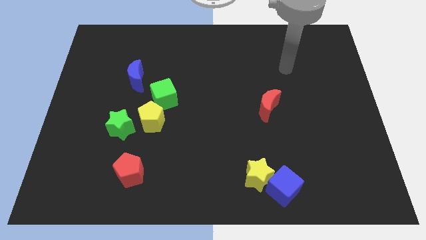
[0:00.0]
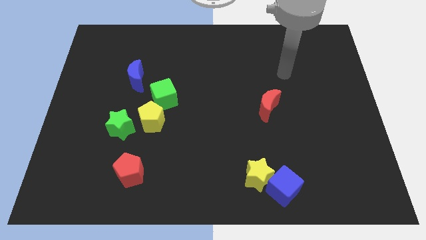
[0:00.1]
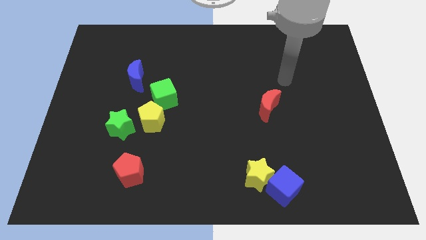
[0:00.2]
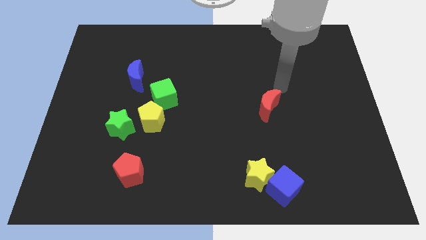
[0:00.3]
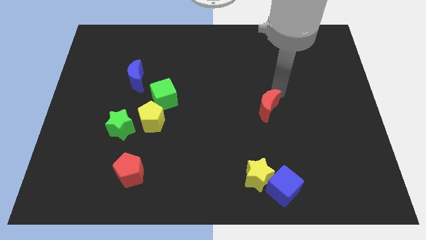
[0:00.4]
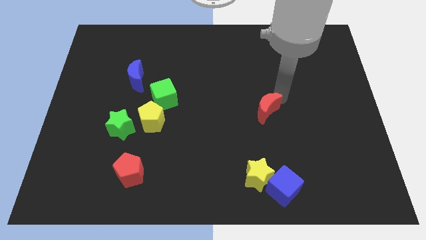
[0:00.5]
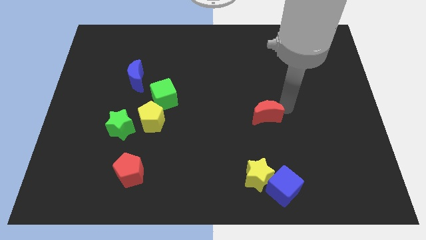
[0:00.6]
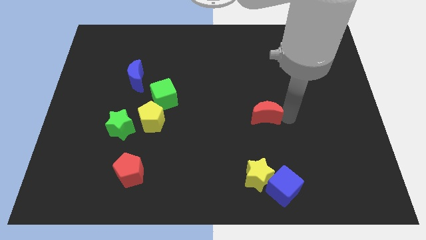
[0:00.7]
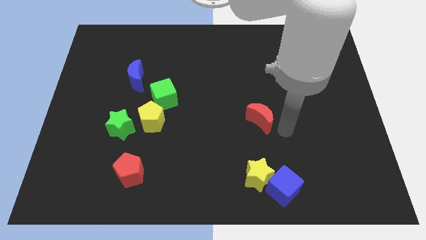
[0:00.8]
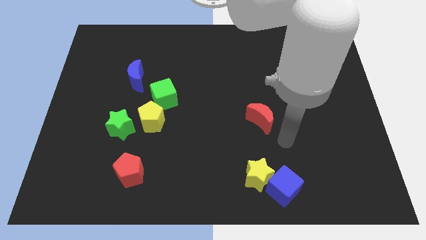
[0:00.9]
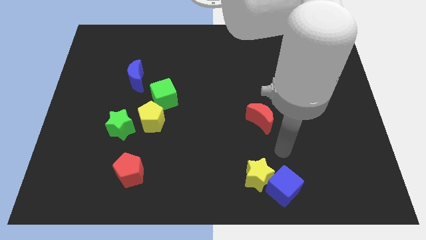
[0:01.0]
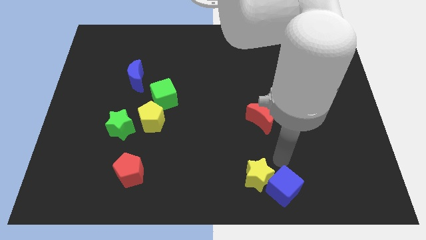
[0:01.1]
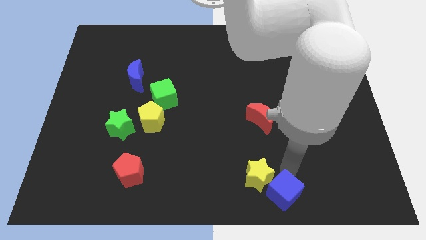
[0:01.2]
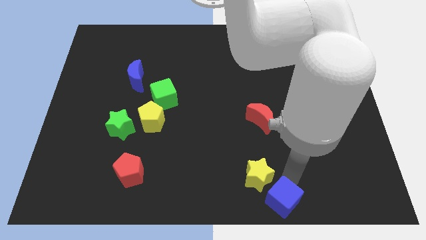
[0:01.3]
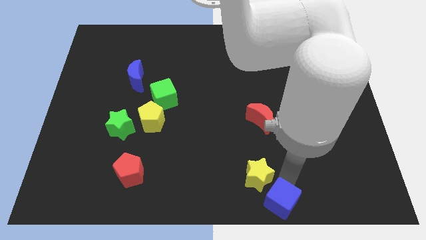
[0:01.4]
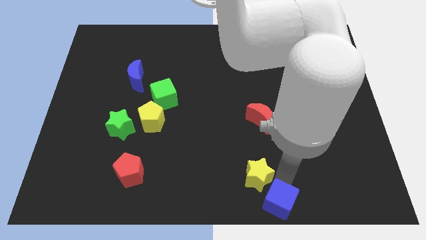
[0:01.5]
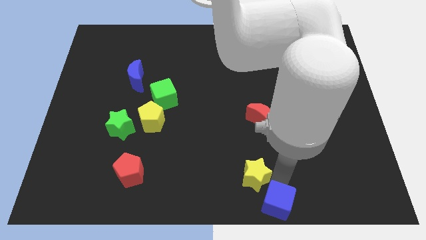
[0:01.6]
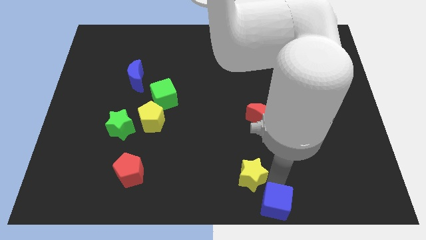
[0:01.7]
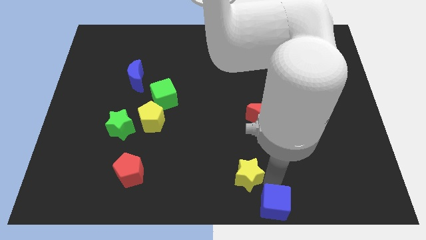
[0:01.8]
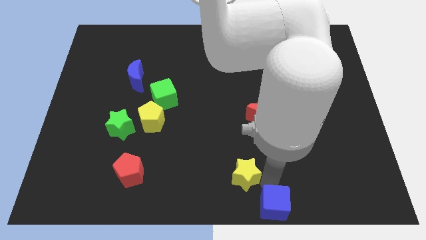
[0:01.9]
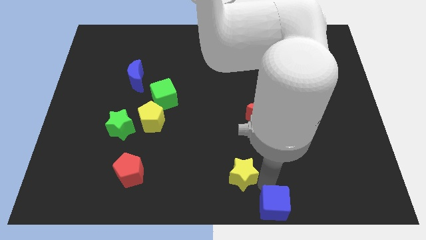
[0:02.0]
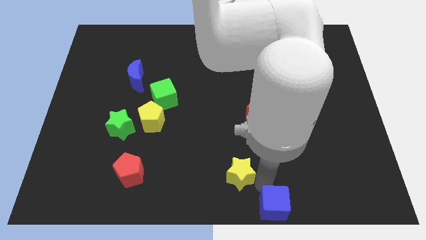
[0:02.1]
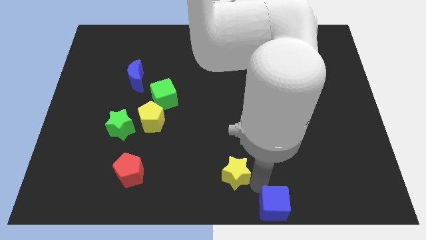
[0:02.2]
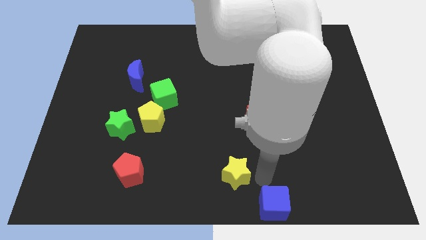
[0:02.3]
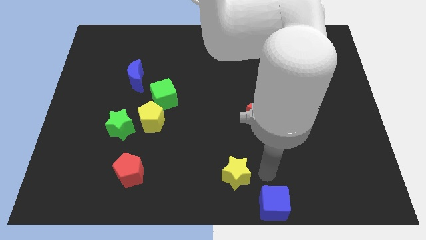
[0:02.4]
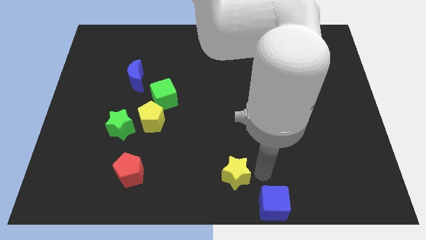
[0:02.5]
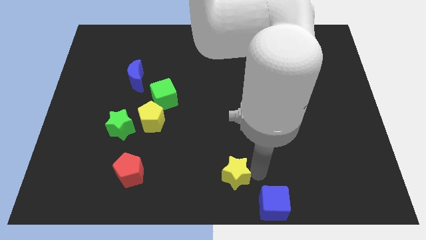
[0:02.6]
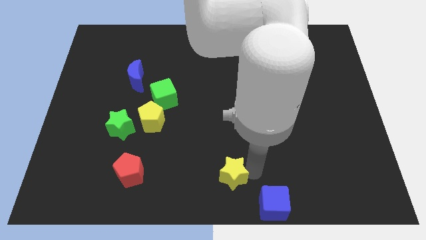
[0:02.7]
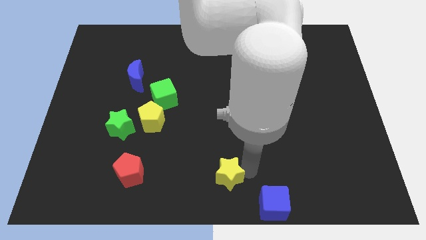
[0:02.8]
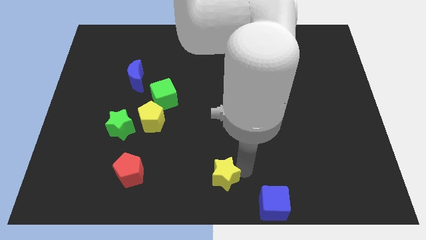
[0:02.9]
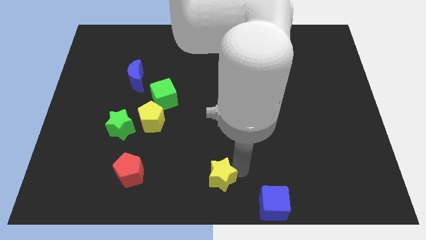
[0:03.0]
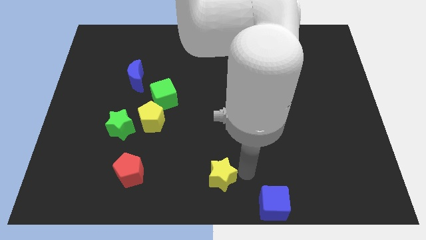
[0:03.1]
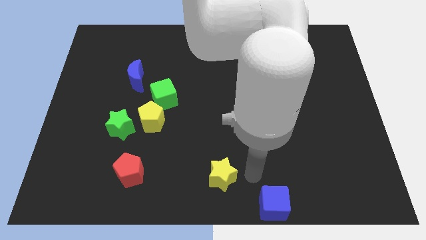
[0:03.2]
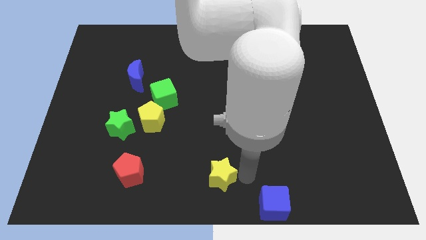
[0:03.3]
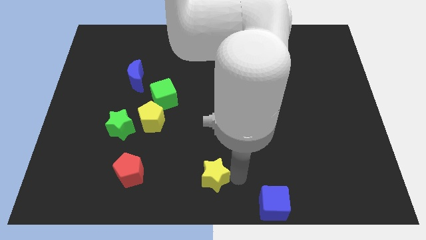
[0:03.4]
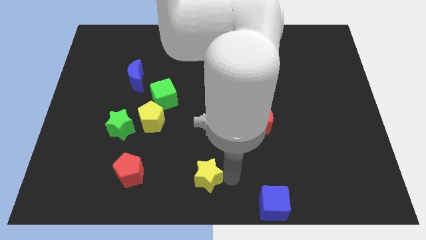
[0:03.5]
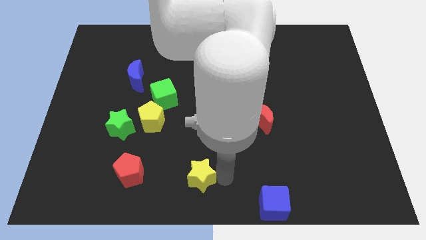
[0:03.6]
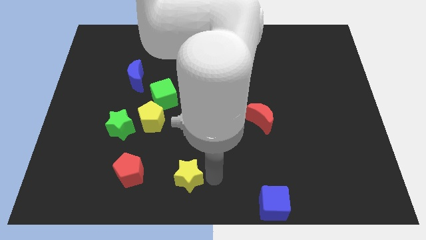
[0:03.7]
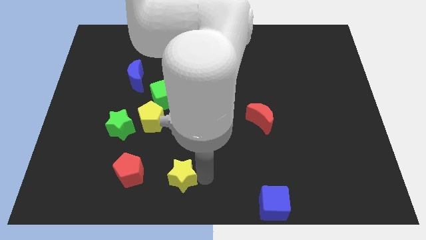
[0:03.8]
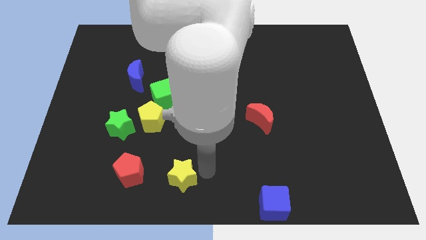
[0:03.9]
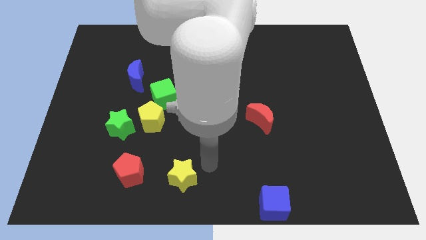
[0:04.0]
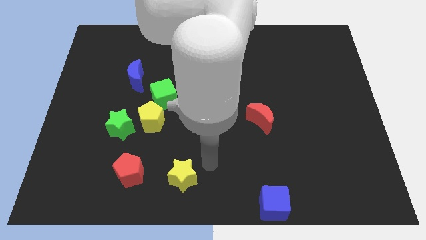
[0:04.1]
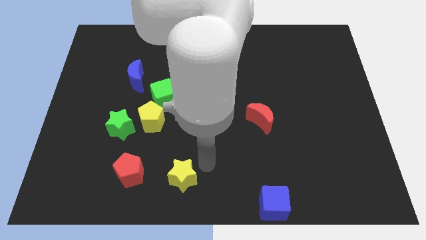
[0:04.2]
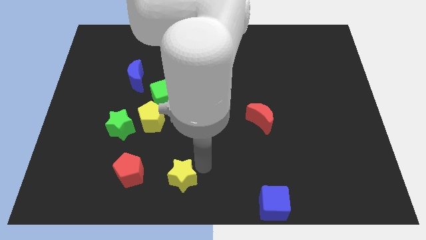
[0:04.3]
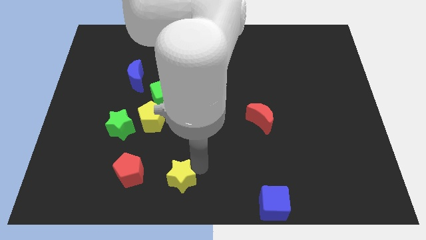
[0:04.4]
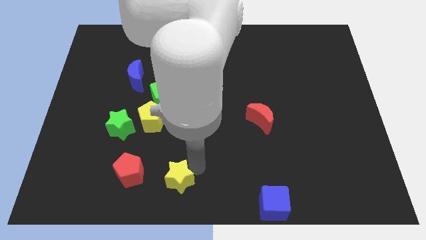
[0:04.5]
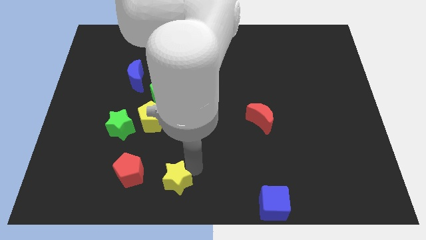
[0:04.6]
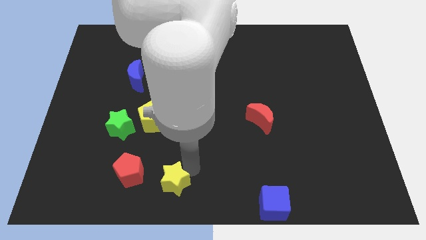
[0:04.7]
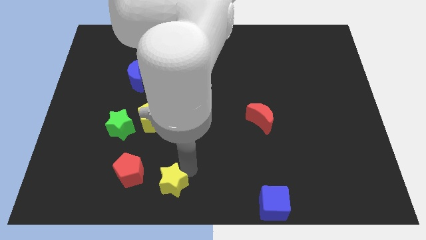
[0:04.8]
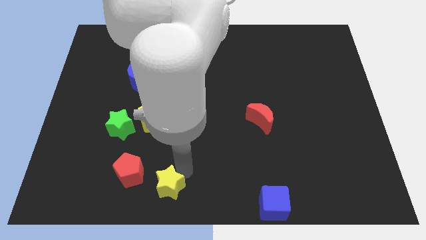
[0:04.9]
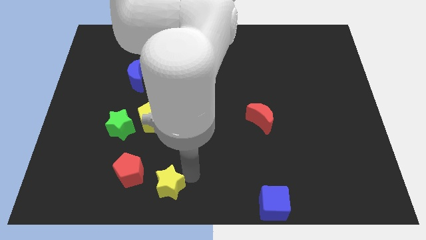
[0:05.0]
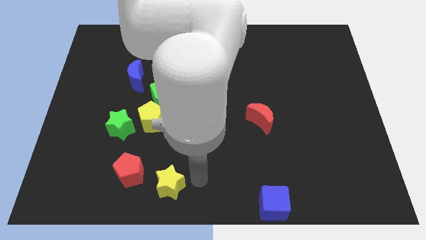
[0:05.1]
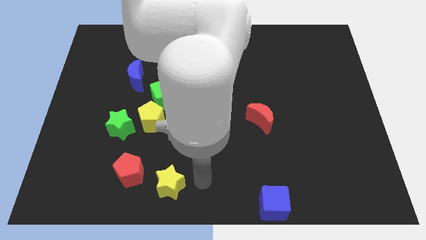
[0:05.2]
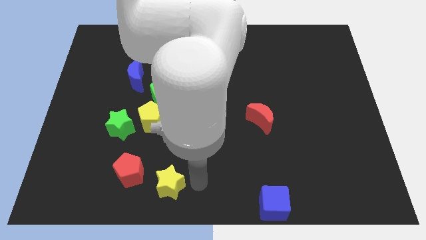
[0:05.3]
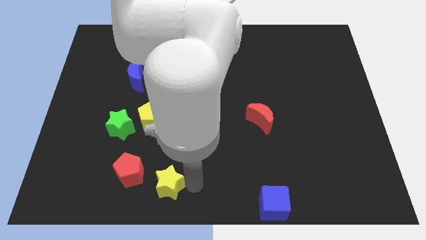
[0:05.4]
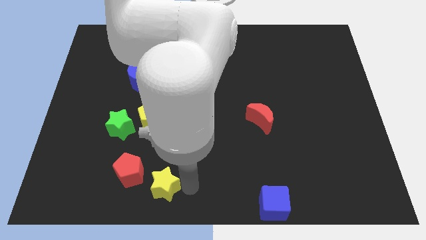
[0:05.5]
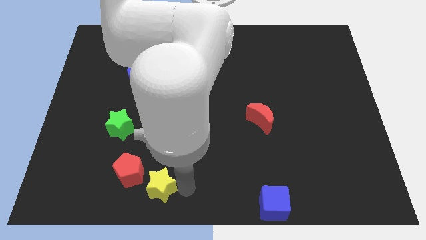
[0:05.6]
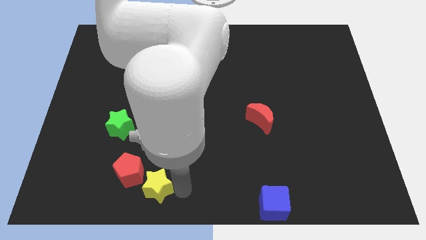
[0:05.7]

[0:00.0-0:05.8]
move the yellow star to the left

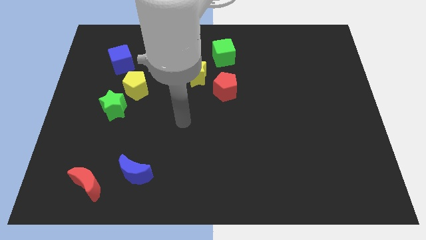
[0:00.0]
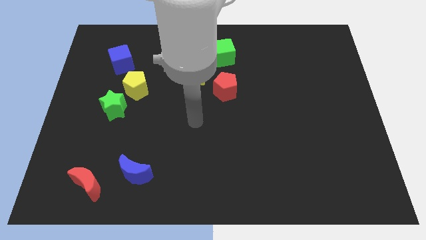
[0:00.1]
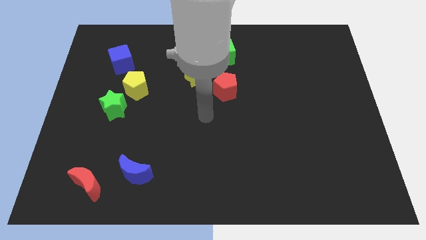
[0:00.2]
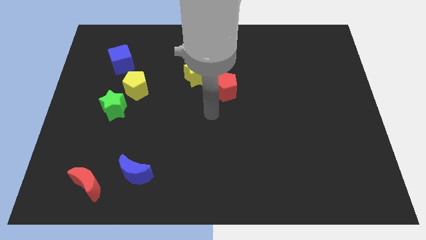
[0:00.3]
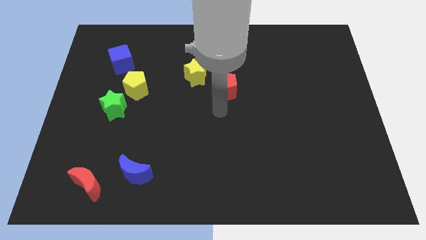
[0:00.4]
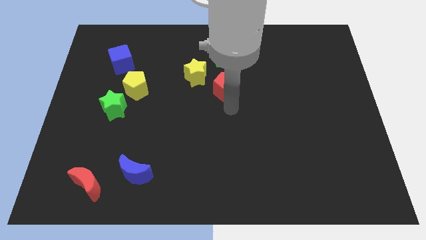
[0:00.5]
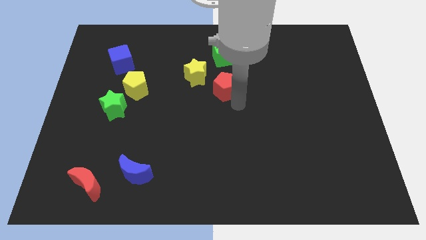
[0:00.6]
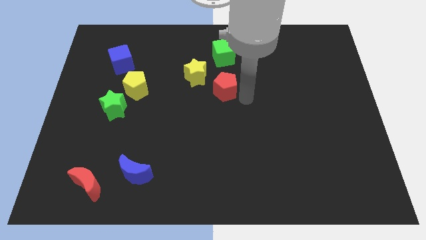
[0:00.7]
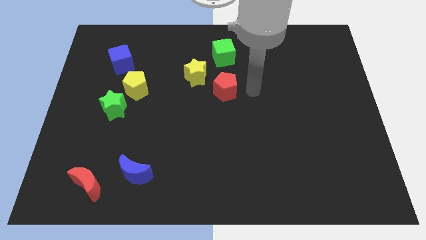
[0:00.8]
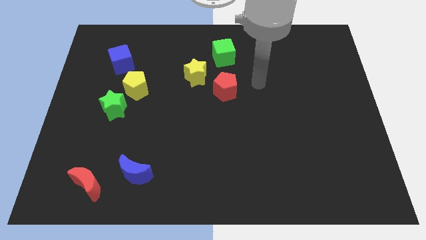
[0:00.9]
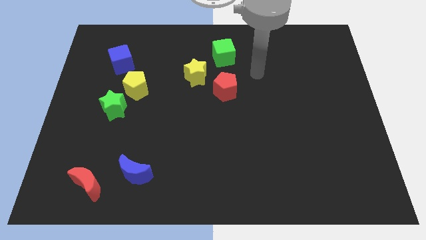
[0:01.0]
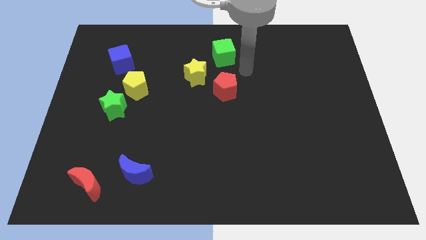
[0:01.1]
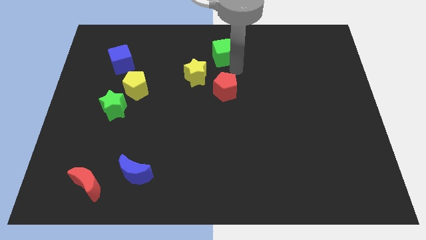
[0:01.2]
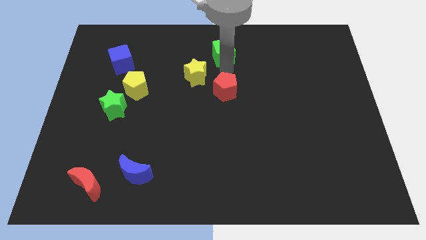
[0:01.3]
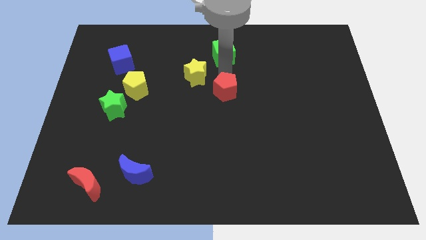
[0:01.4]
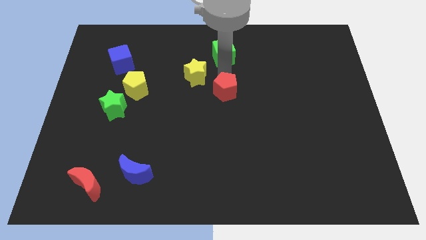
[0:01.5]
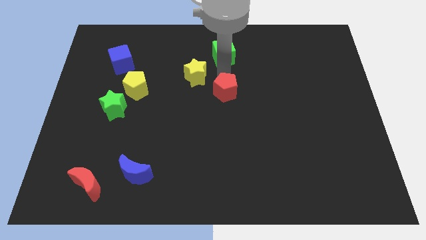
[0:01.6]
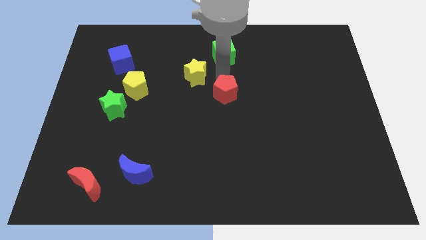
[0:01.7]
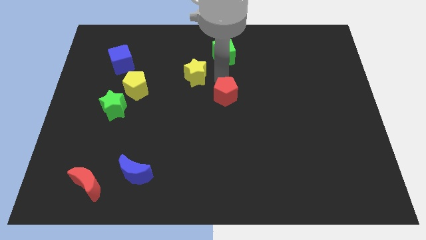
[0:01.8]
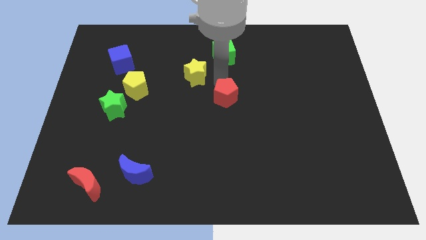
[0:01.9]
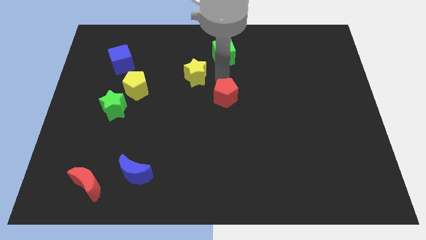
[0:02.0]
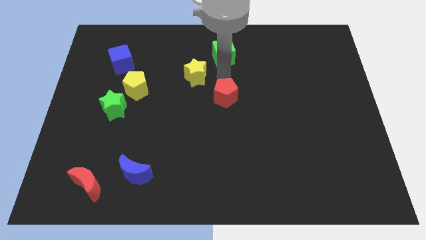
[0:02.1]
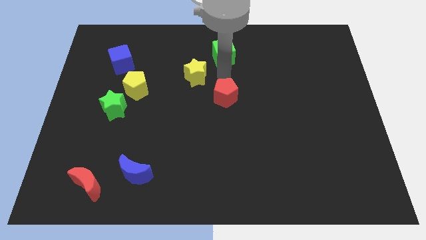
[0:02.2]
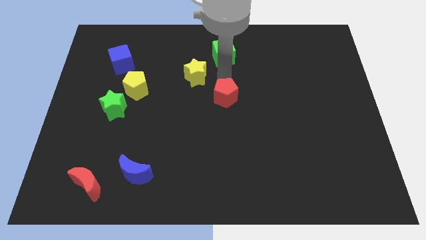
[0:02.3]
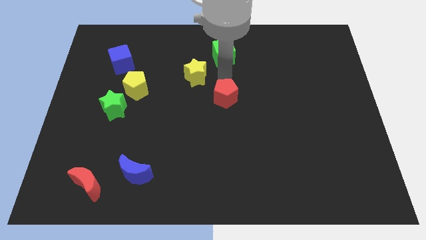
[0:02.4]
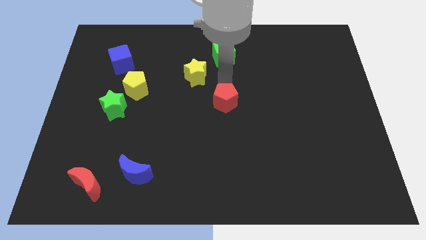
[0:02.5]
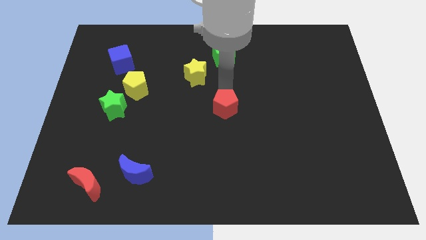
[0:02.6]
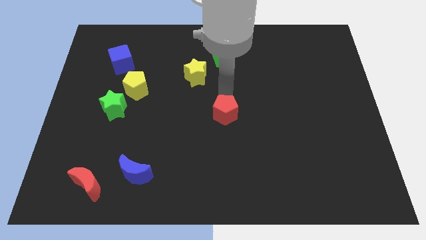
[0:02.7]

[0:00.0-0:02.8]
push the red pentagon down somewhat
